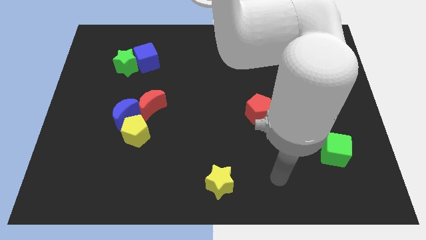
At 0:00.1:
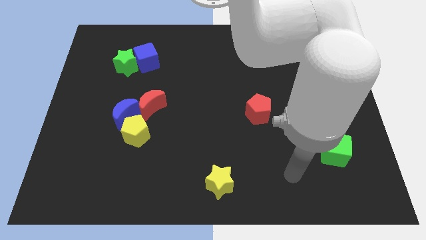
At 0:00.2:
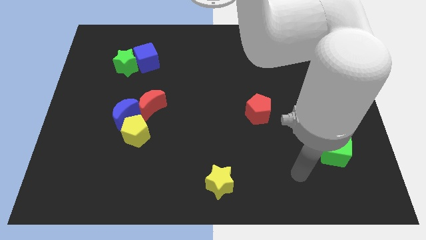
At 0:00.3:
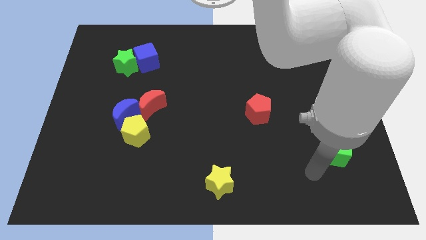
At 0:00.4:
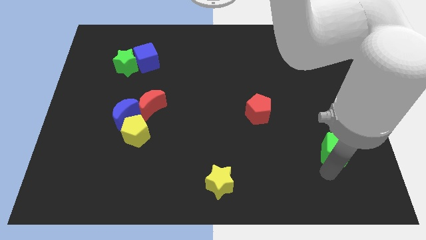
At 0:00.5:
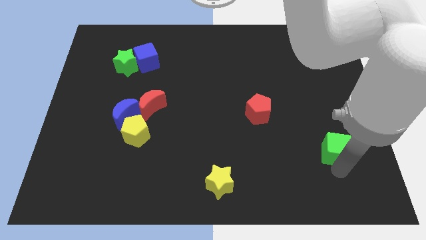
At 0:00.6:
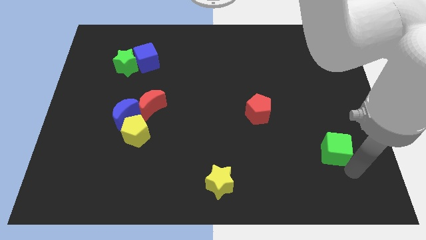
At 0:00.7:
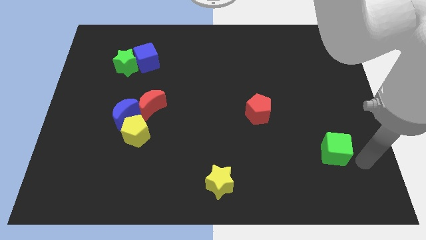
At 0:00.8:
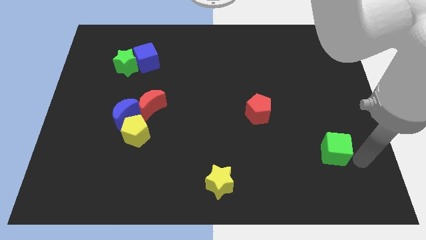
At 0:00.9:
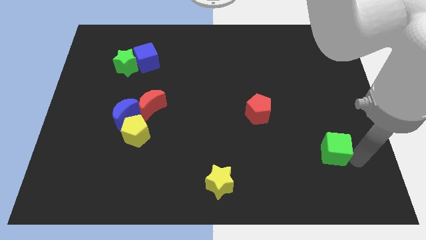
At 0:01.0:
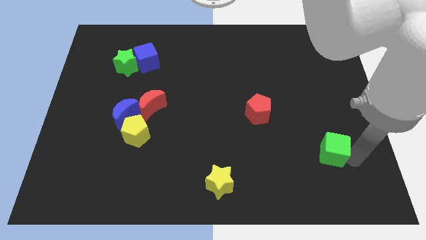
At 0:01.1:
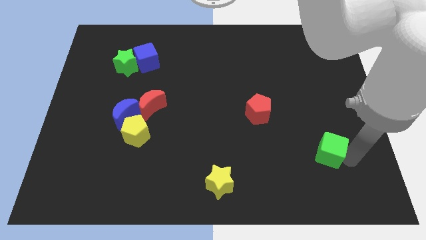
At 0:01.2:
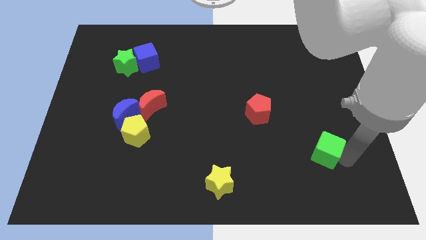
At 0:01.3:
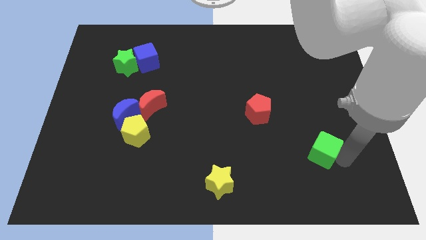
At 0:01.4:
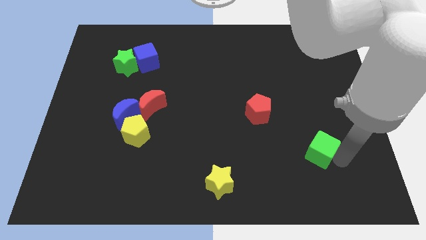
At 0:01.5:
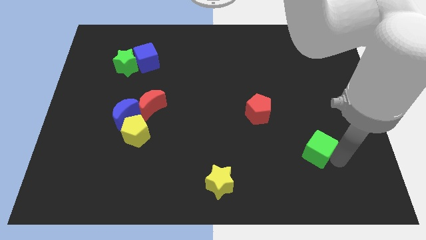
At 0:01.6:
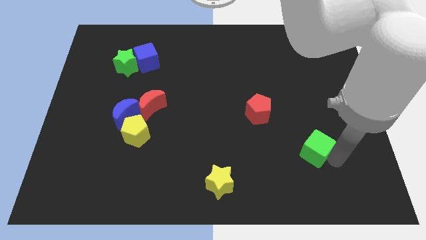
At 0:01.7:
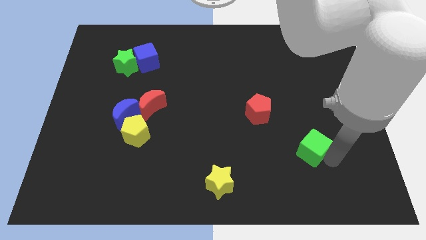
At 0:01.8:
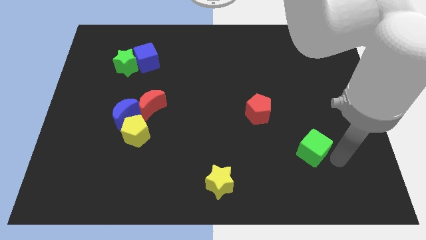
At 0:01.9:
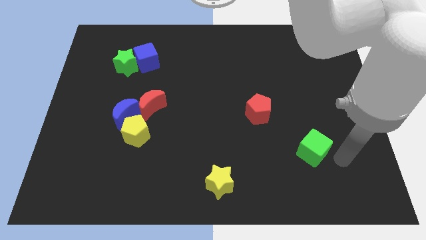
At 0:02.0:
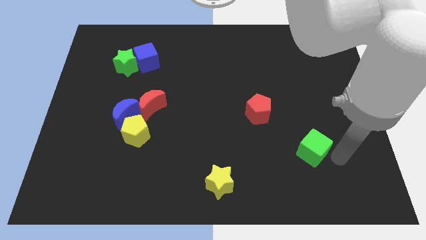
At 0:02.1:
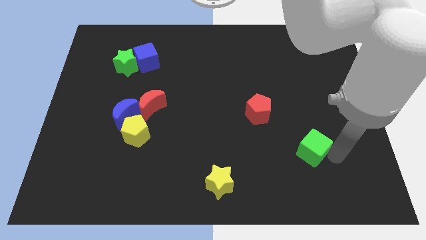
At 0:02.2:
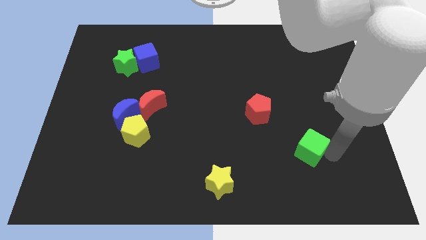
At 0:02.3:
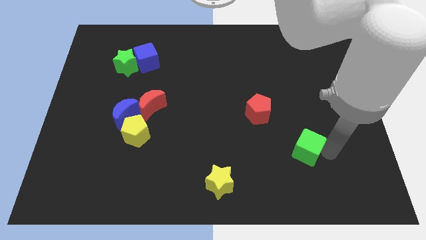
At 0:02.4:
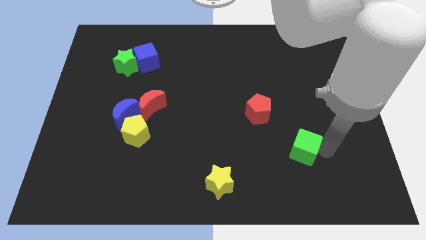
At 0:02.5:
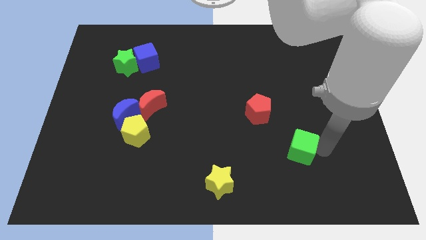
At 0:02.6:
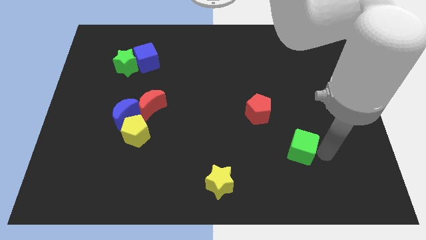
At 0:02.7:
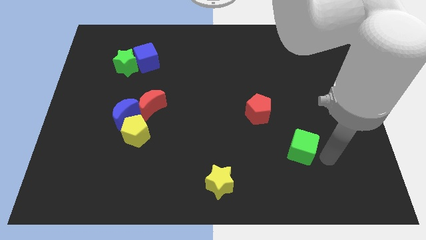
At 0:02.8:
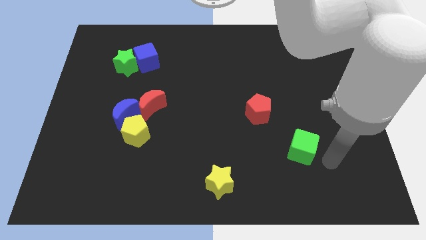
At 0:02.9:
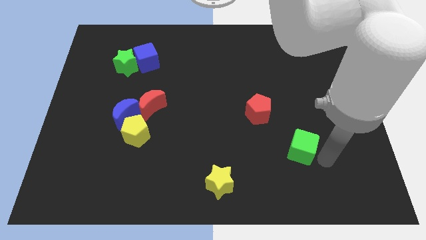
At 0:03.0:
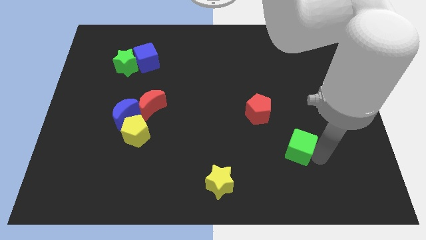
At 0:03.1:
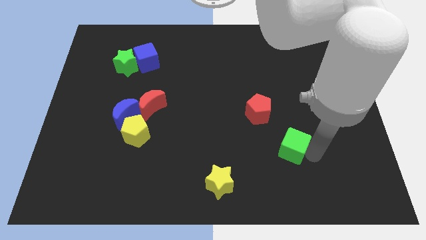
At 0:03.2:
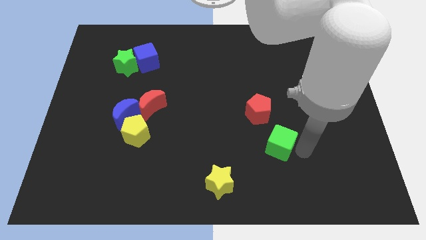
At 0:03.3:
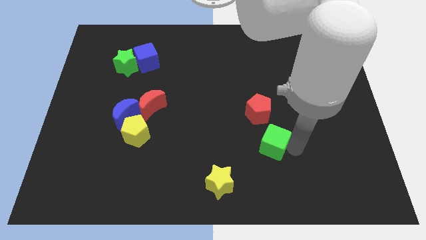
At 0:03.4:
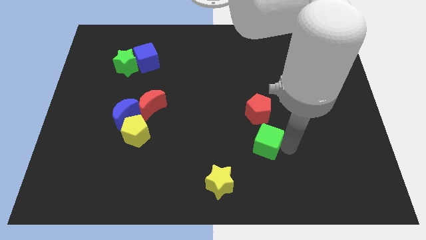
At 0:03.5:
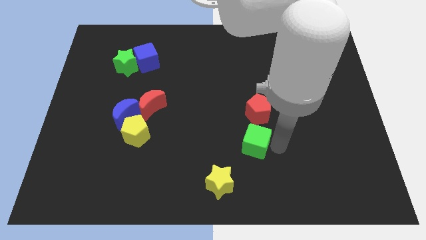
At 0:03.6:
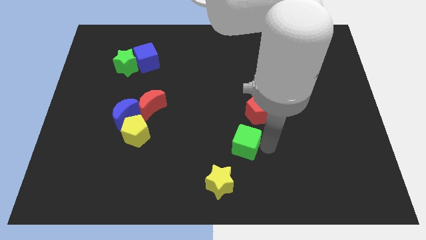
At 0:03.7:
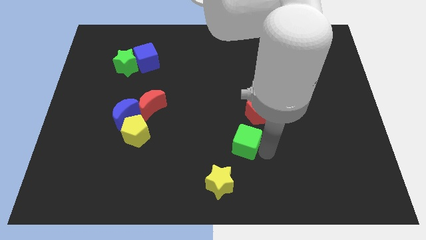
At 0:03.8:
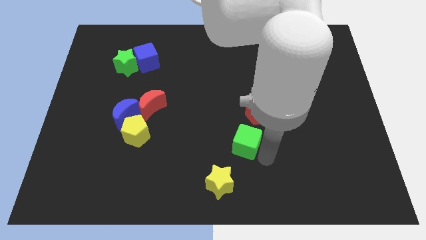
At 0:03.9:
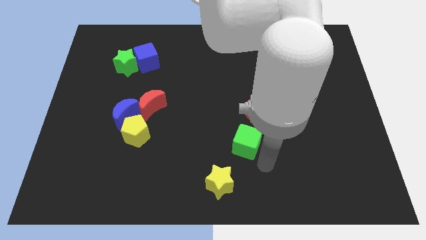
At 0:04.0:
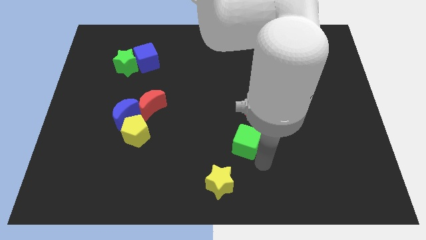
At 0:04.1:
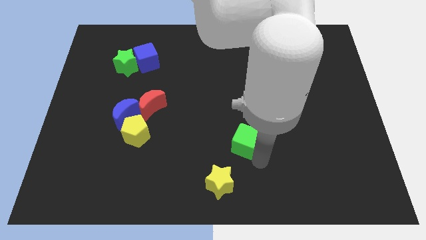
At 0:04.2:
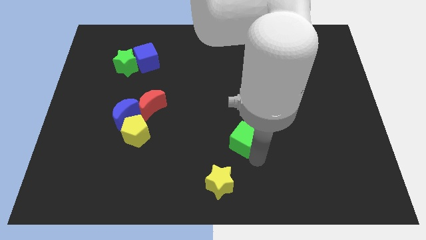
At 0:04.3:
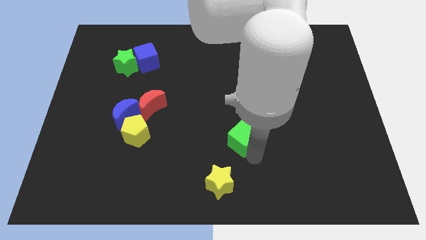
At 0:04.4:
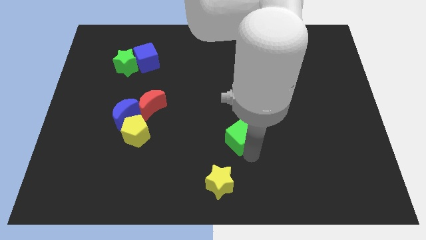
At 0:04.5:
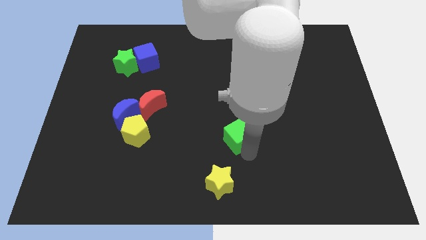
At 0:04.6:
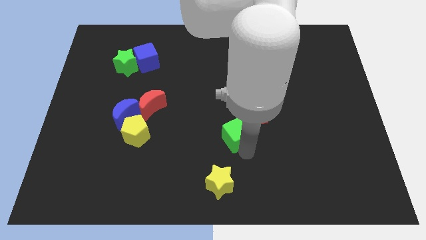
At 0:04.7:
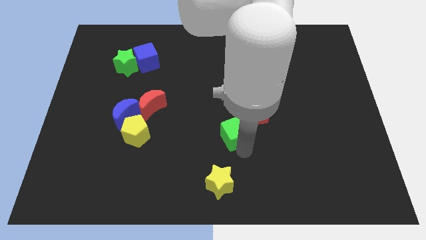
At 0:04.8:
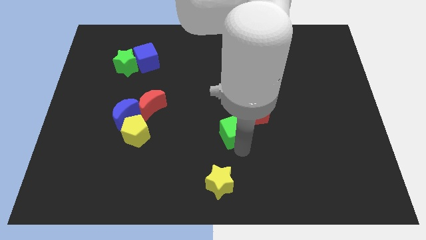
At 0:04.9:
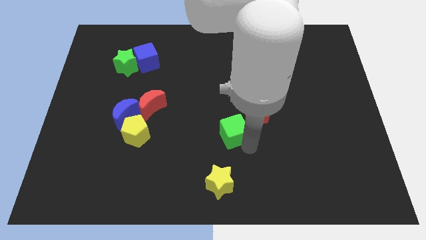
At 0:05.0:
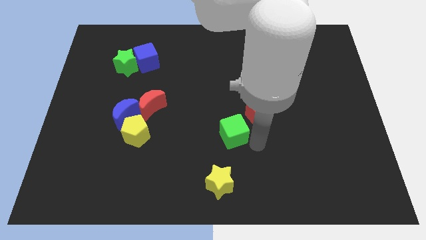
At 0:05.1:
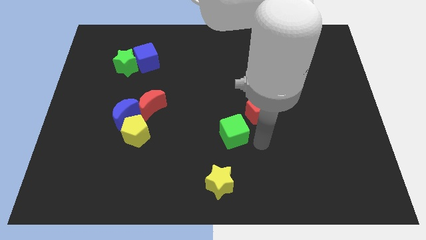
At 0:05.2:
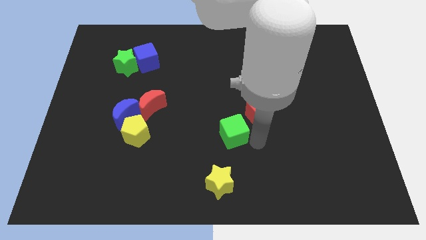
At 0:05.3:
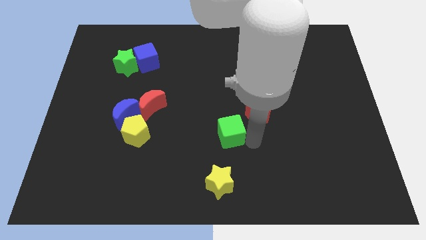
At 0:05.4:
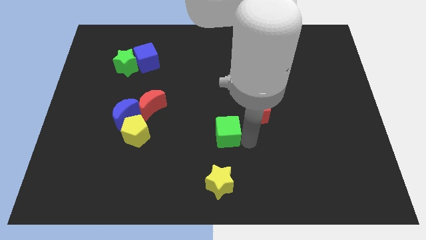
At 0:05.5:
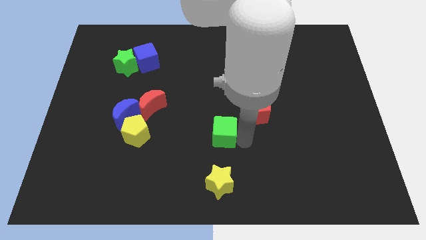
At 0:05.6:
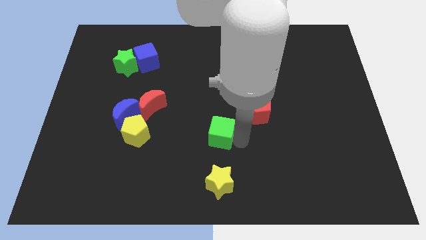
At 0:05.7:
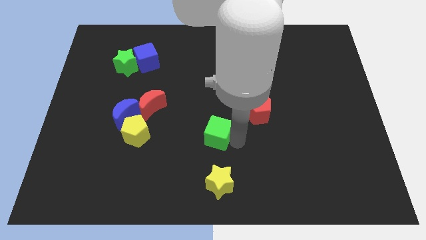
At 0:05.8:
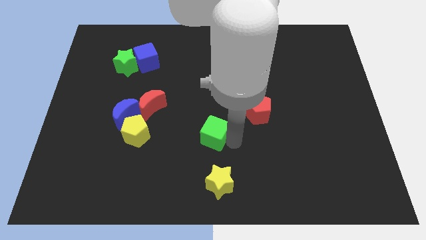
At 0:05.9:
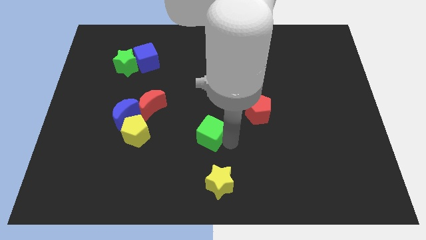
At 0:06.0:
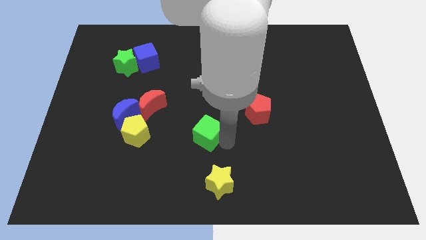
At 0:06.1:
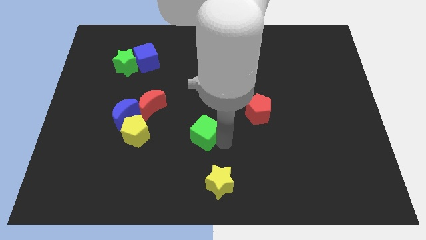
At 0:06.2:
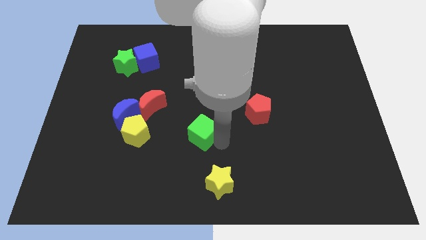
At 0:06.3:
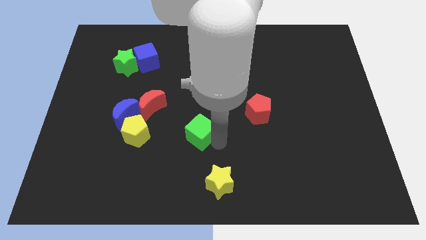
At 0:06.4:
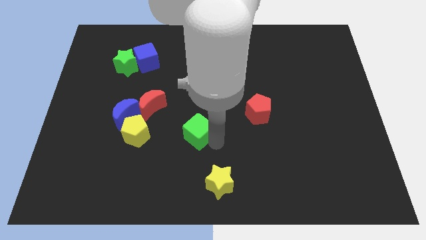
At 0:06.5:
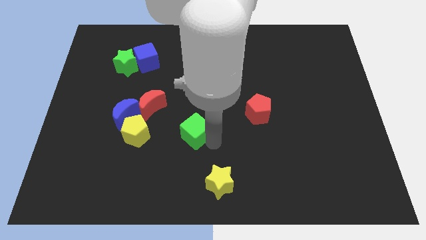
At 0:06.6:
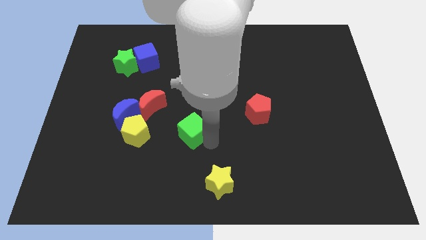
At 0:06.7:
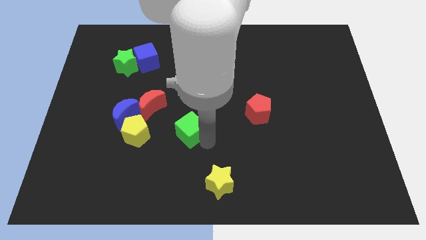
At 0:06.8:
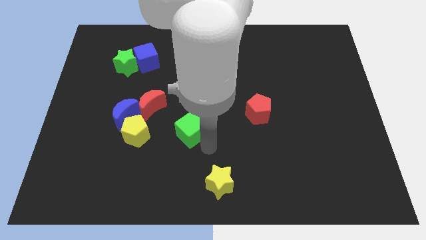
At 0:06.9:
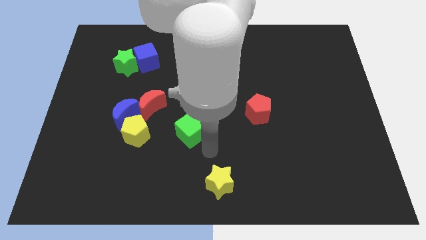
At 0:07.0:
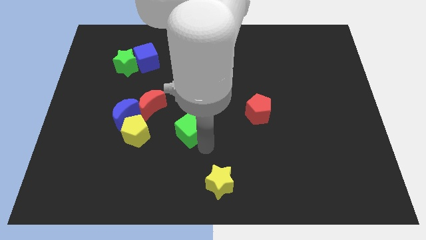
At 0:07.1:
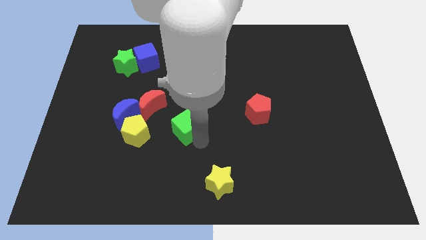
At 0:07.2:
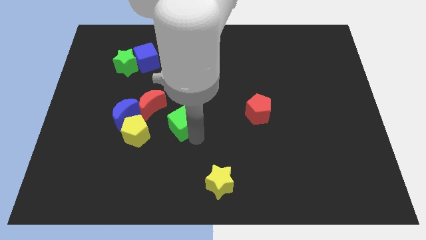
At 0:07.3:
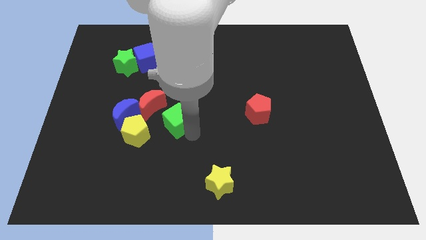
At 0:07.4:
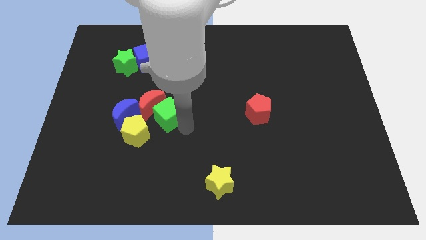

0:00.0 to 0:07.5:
put the green cube to the red moon
